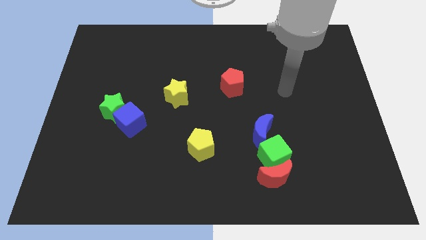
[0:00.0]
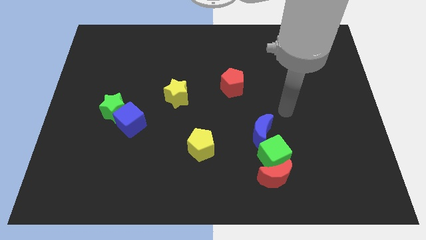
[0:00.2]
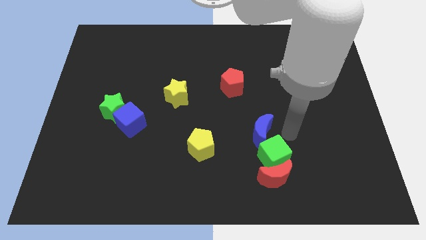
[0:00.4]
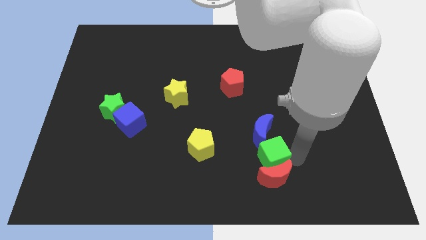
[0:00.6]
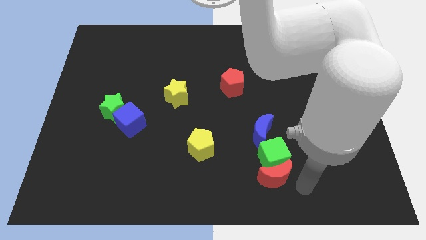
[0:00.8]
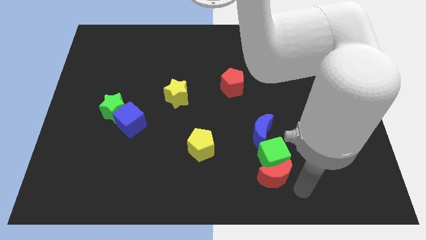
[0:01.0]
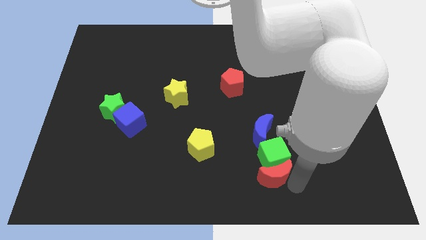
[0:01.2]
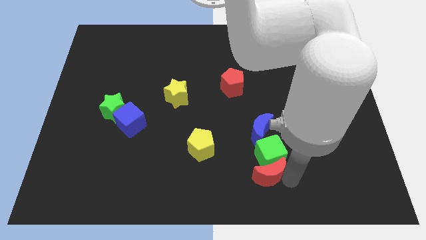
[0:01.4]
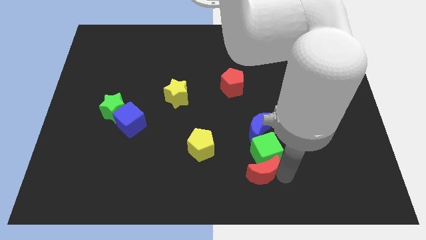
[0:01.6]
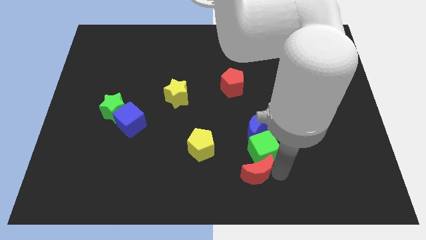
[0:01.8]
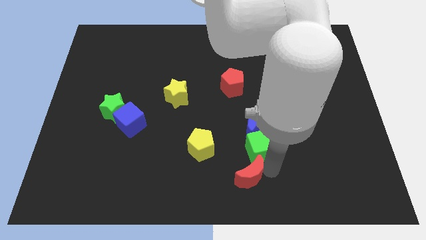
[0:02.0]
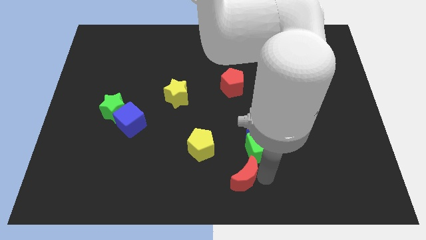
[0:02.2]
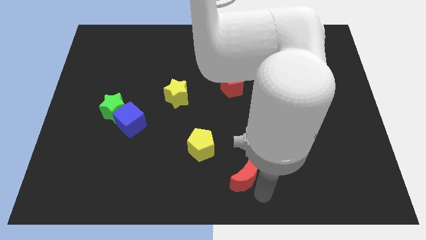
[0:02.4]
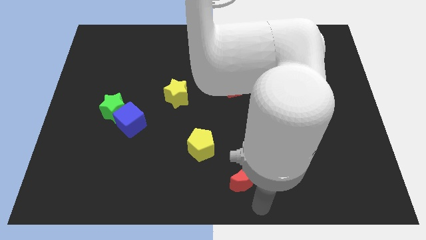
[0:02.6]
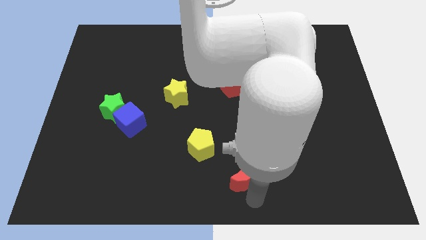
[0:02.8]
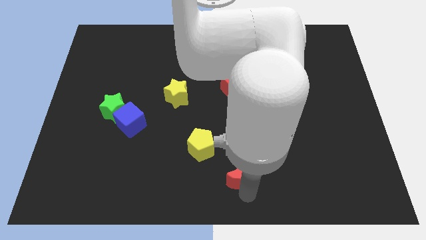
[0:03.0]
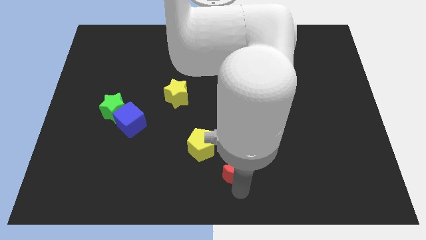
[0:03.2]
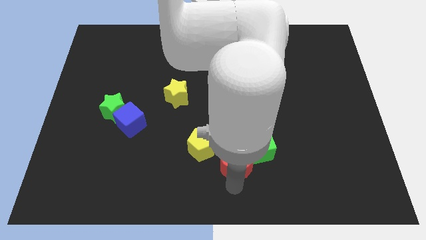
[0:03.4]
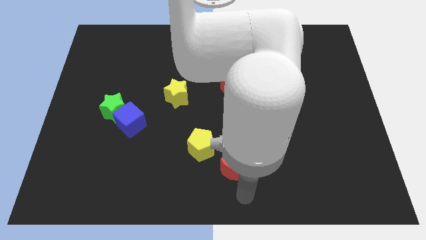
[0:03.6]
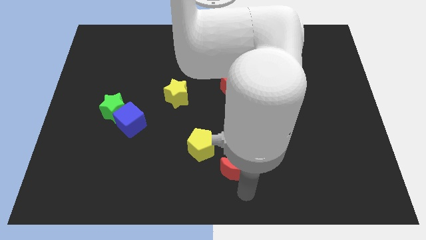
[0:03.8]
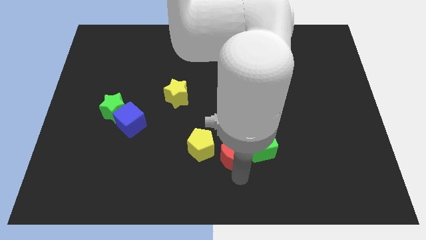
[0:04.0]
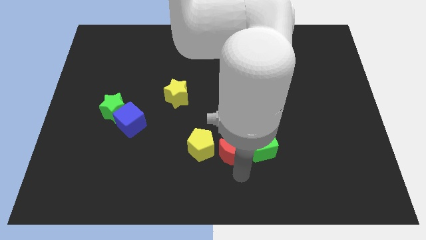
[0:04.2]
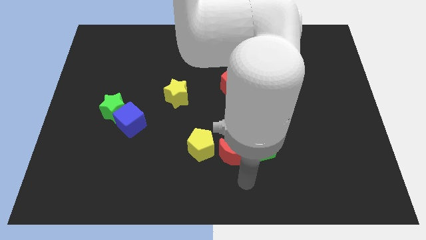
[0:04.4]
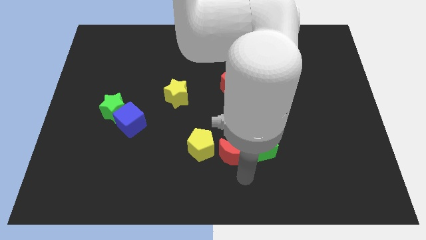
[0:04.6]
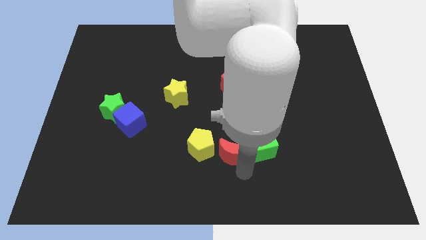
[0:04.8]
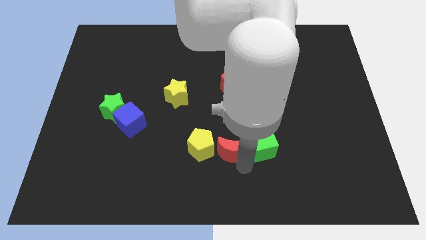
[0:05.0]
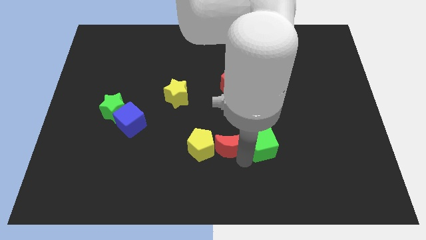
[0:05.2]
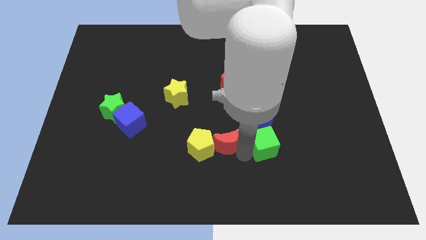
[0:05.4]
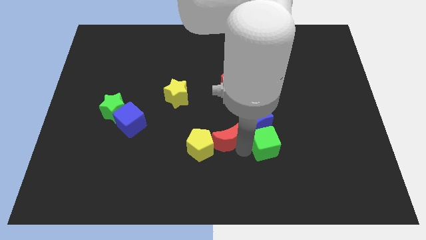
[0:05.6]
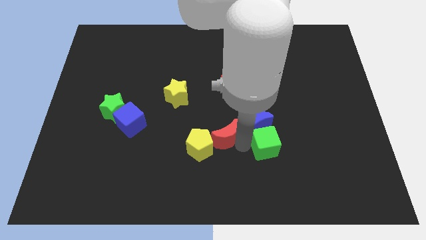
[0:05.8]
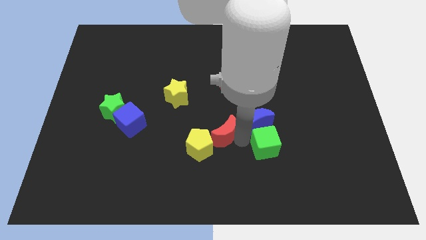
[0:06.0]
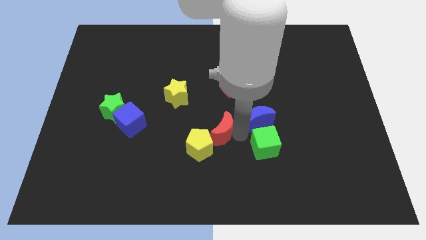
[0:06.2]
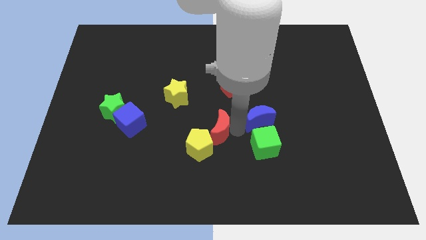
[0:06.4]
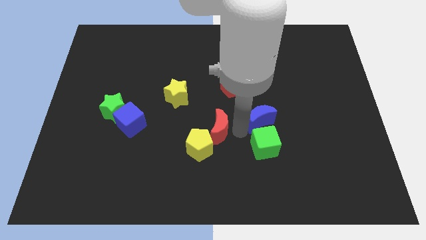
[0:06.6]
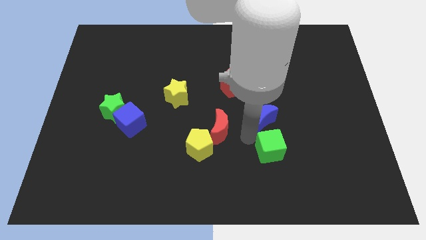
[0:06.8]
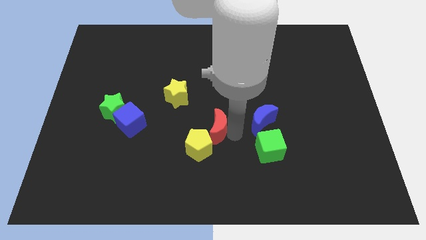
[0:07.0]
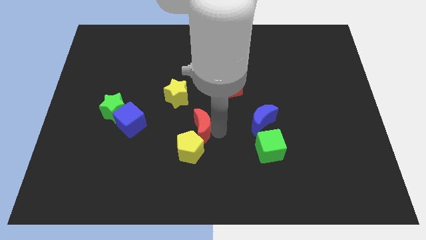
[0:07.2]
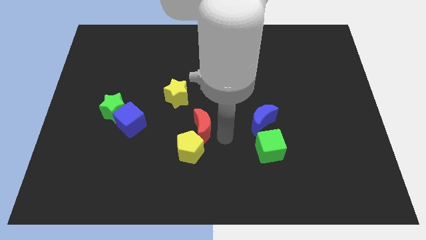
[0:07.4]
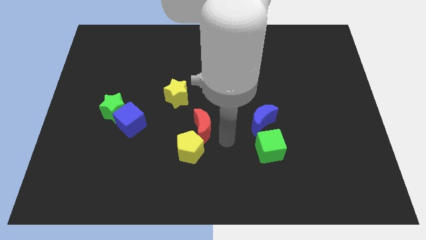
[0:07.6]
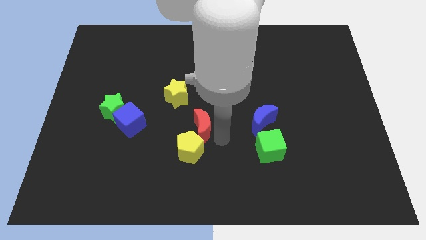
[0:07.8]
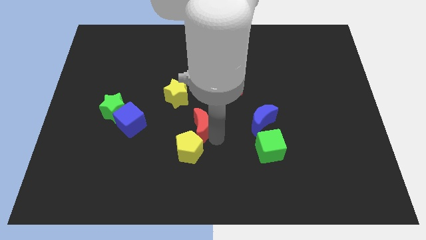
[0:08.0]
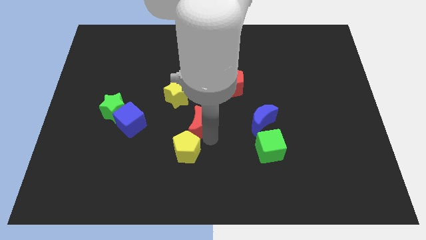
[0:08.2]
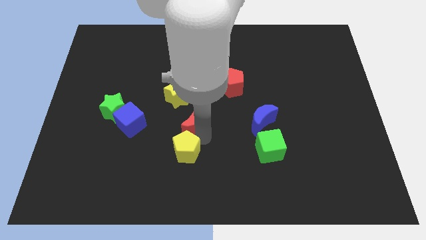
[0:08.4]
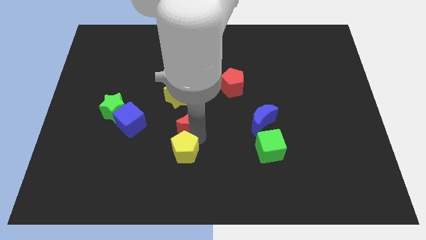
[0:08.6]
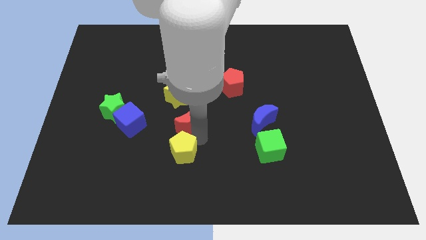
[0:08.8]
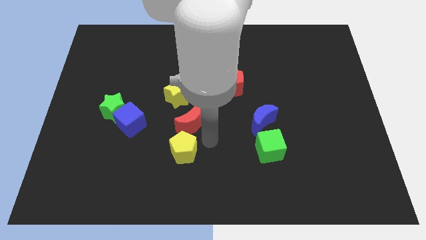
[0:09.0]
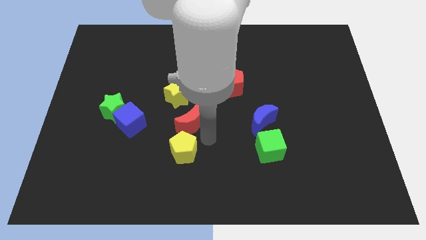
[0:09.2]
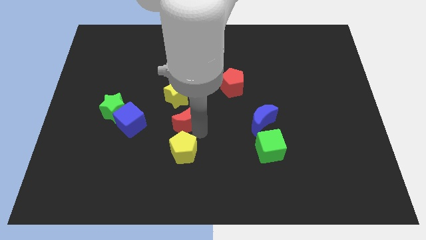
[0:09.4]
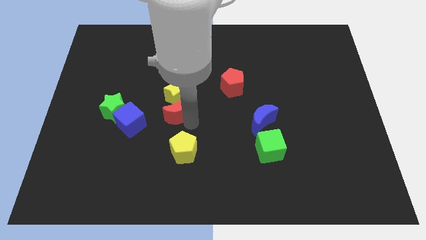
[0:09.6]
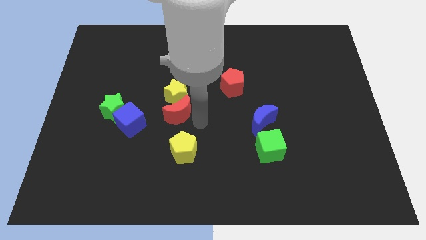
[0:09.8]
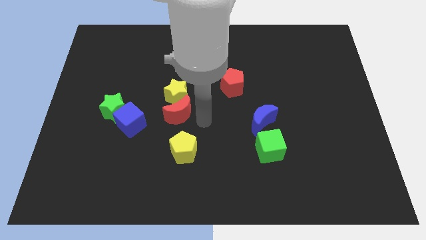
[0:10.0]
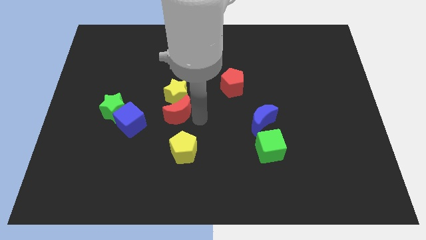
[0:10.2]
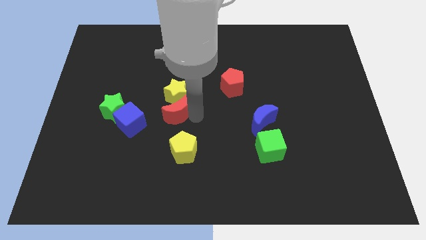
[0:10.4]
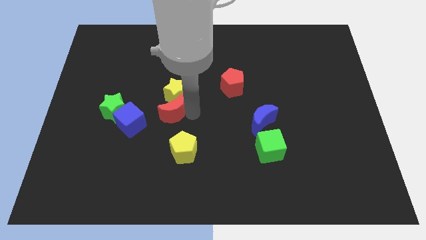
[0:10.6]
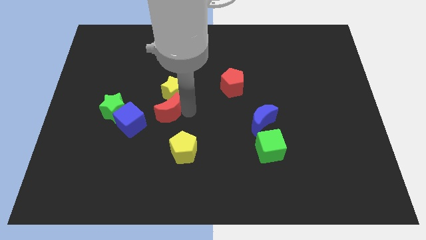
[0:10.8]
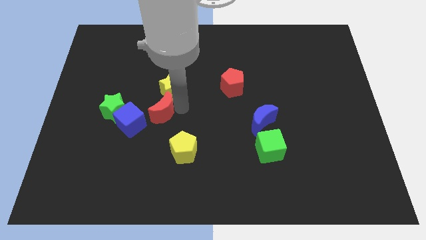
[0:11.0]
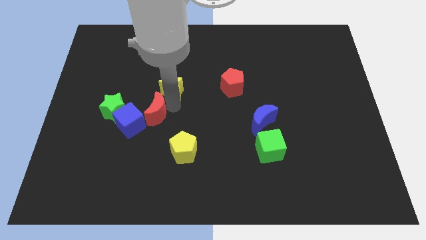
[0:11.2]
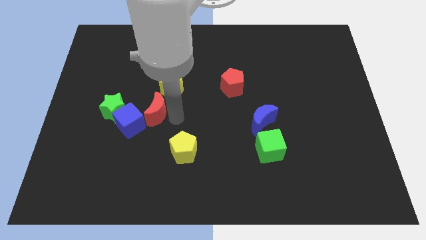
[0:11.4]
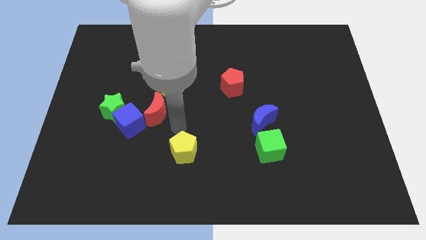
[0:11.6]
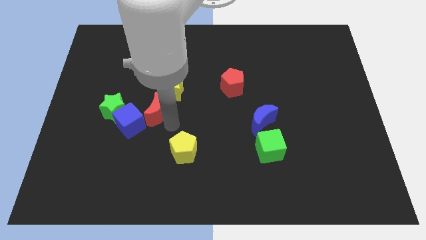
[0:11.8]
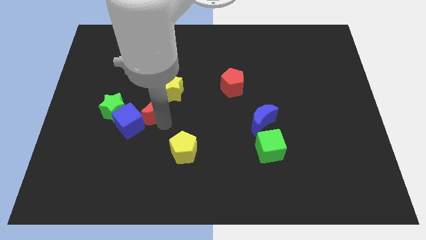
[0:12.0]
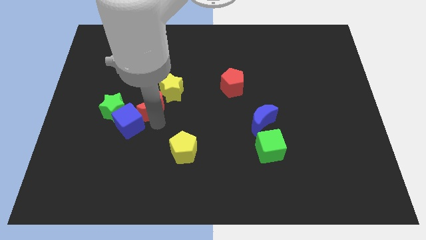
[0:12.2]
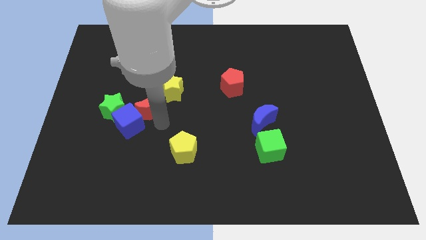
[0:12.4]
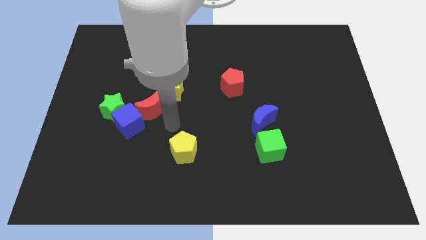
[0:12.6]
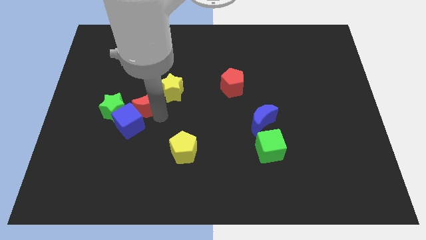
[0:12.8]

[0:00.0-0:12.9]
move the red moon just left of the yellow star

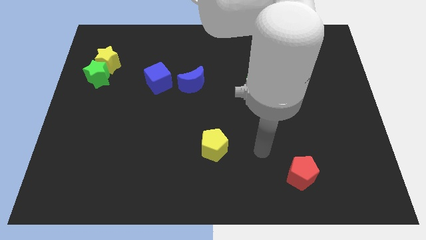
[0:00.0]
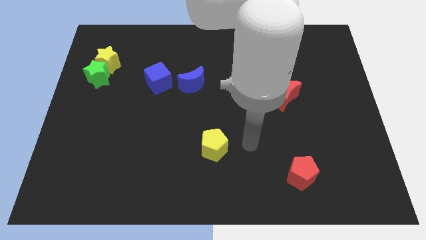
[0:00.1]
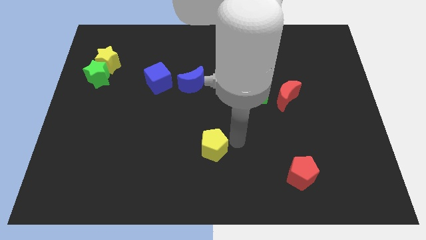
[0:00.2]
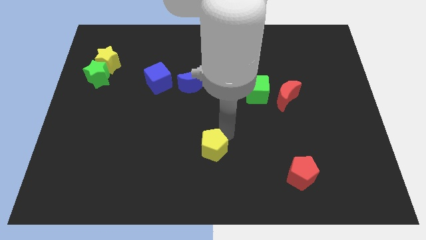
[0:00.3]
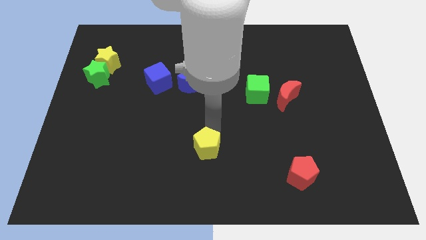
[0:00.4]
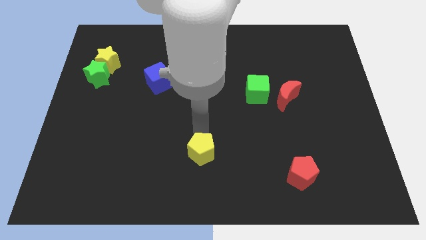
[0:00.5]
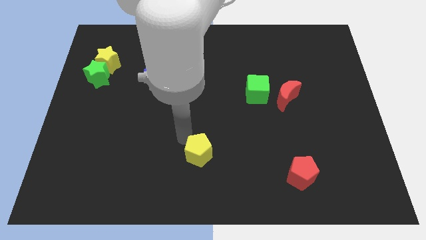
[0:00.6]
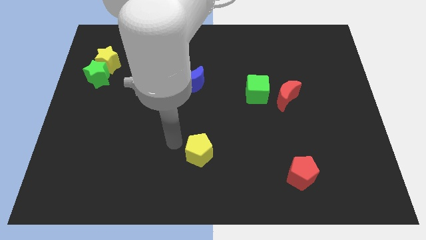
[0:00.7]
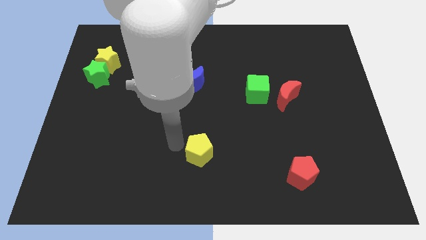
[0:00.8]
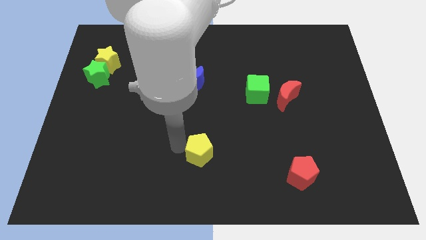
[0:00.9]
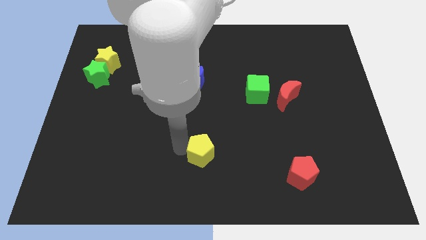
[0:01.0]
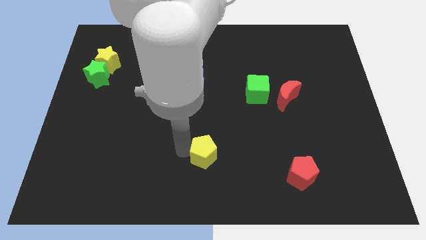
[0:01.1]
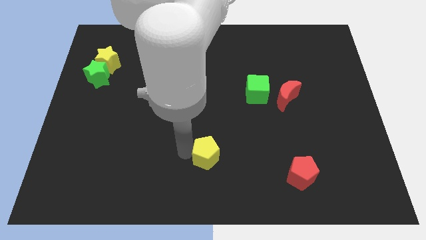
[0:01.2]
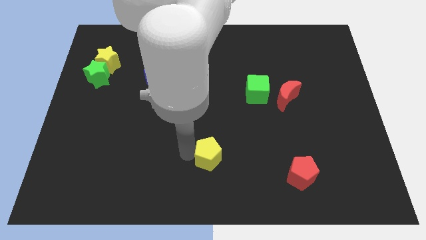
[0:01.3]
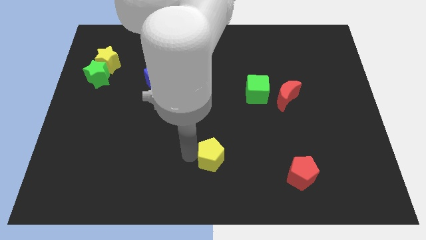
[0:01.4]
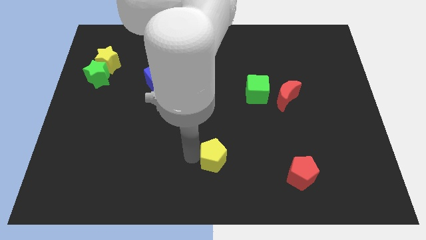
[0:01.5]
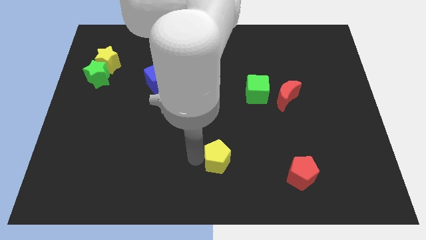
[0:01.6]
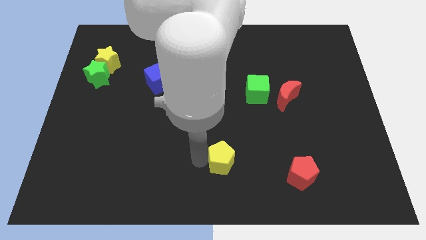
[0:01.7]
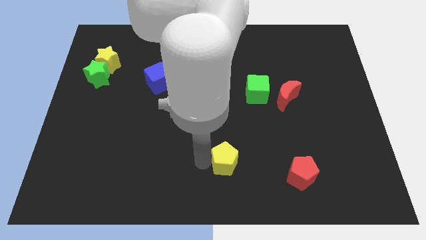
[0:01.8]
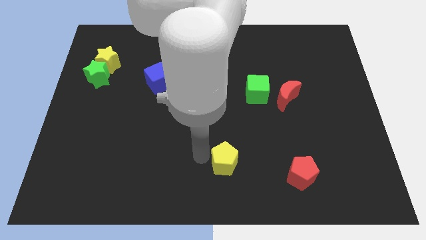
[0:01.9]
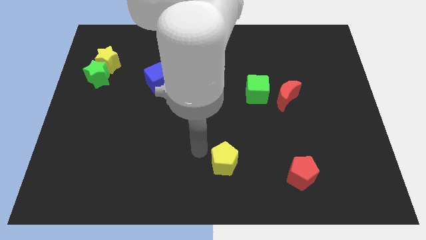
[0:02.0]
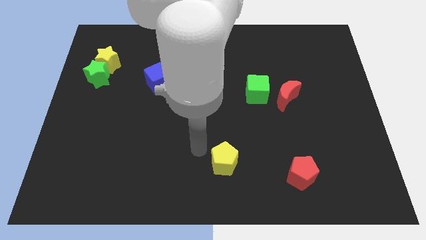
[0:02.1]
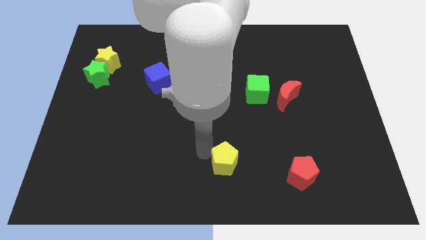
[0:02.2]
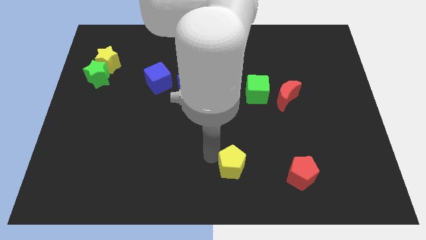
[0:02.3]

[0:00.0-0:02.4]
move the yellow pentagon just left of the red pentagon
